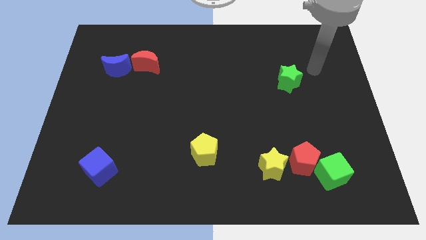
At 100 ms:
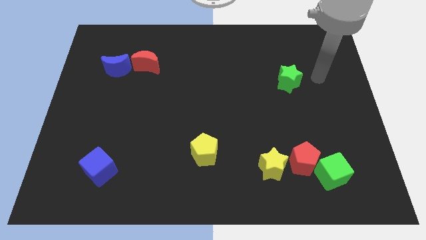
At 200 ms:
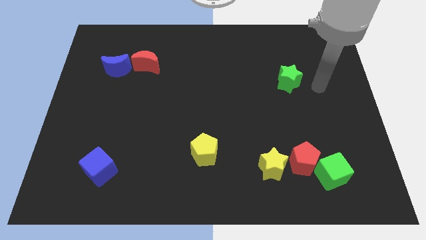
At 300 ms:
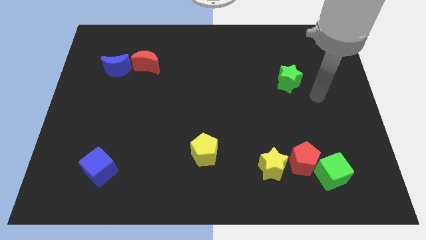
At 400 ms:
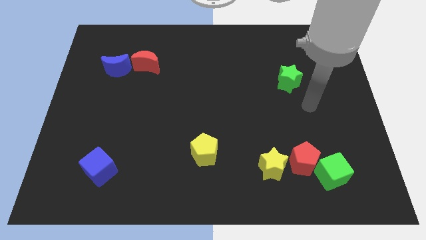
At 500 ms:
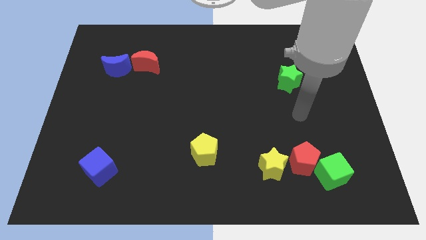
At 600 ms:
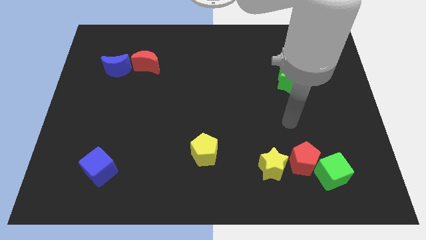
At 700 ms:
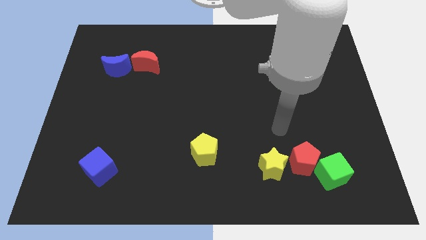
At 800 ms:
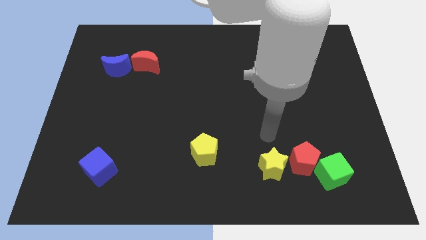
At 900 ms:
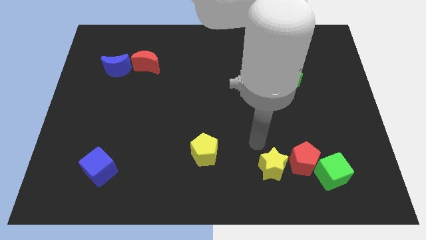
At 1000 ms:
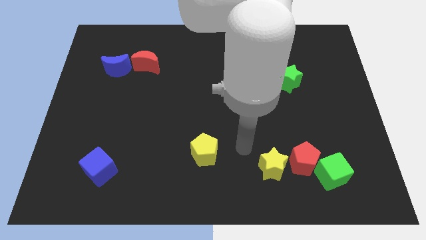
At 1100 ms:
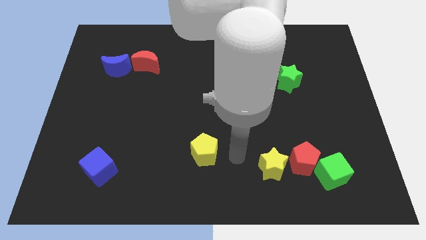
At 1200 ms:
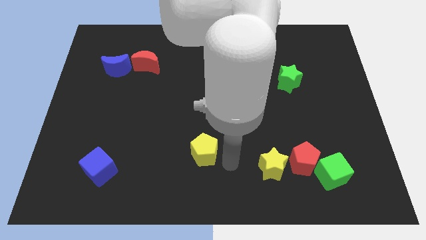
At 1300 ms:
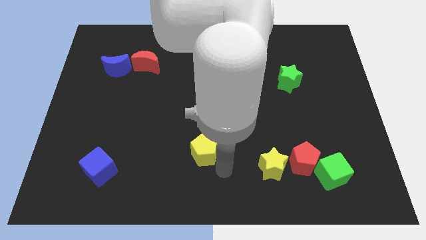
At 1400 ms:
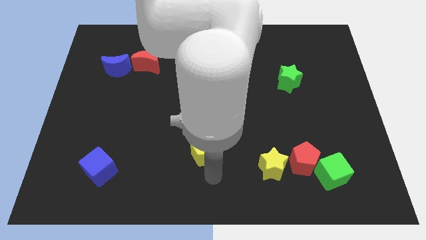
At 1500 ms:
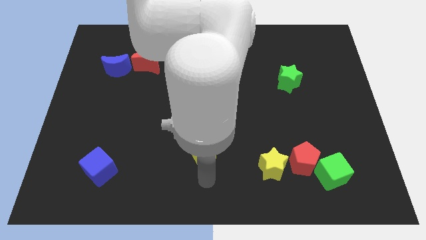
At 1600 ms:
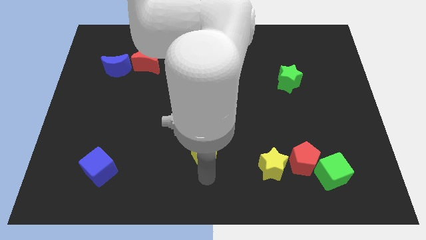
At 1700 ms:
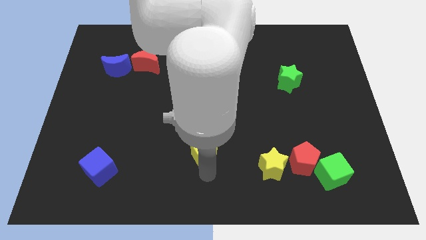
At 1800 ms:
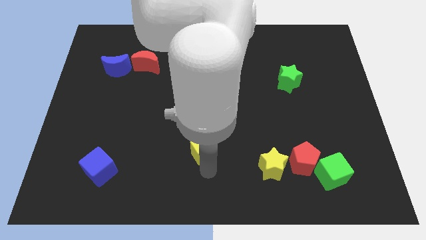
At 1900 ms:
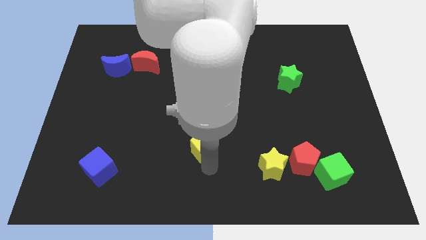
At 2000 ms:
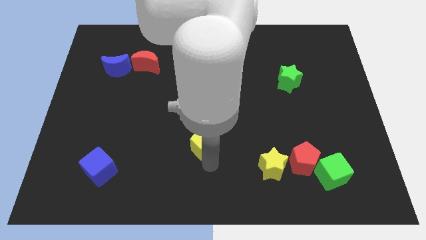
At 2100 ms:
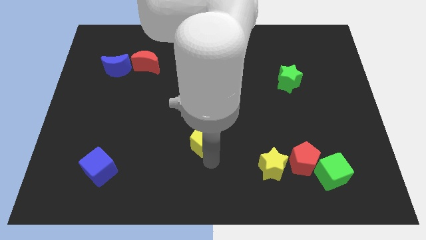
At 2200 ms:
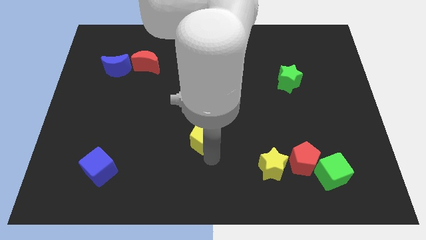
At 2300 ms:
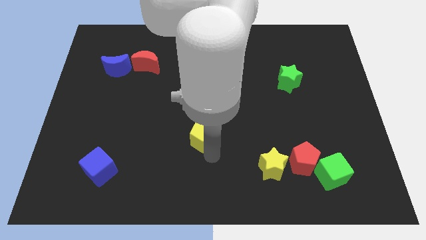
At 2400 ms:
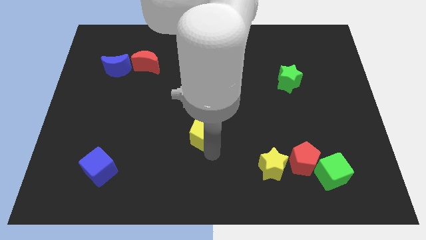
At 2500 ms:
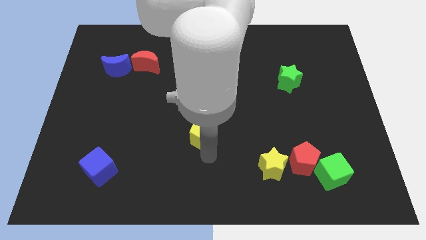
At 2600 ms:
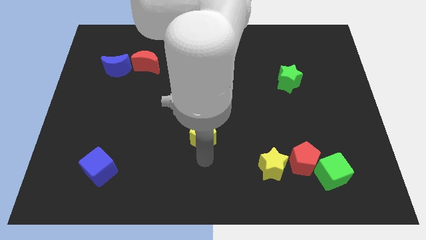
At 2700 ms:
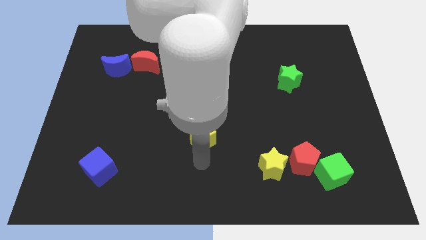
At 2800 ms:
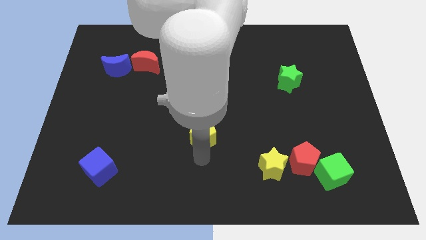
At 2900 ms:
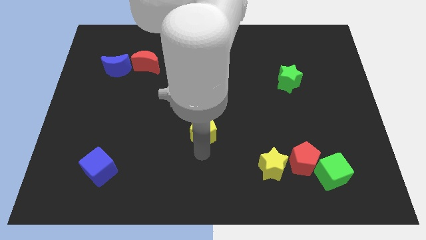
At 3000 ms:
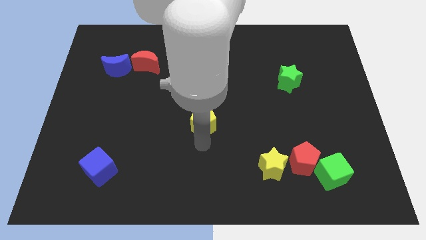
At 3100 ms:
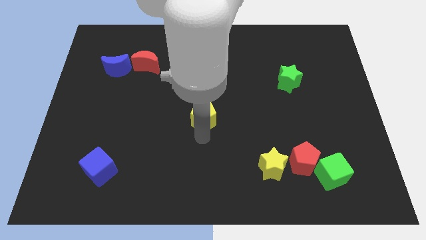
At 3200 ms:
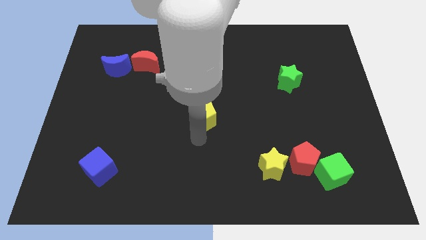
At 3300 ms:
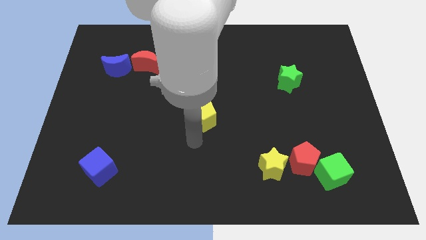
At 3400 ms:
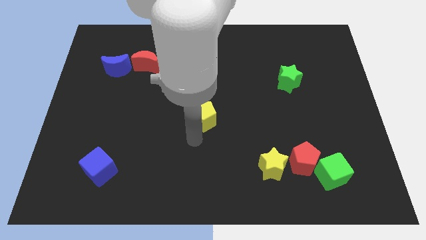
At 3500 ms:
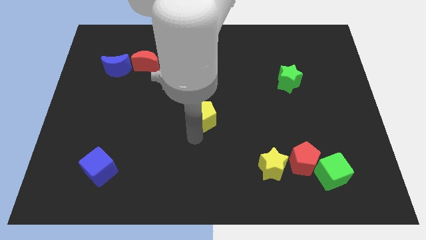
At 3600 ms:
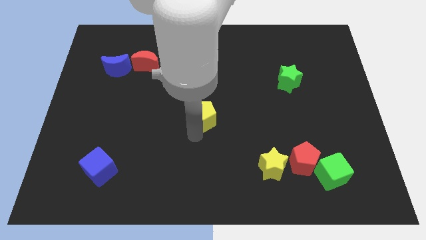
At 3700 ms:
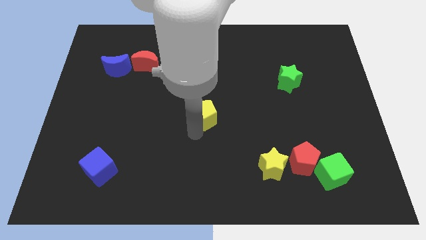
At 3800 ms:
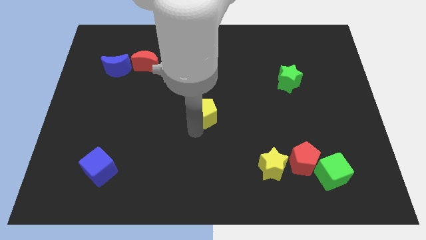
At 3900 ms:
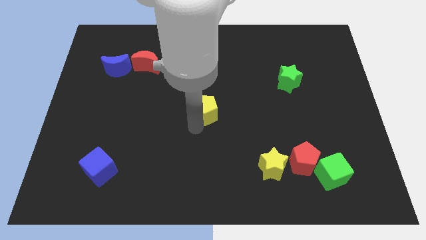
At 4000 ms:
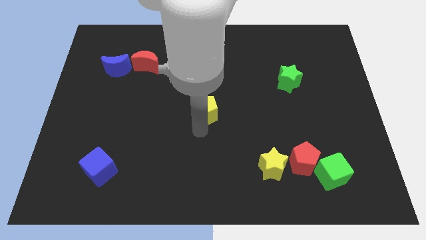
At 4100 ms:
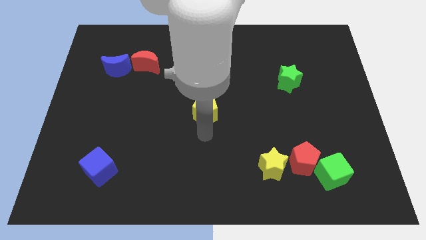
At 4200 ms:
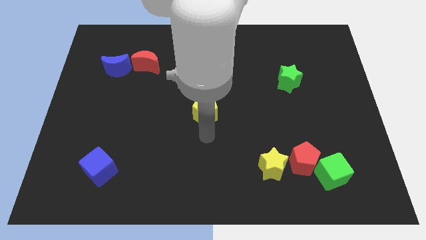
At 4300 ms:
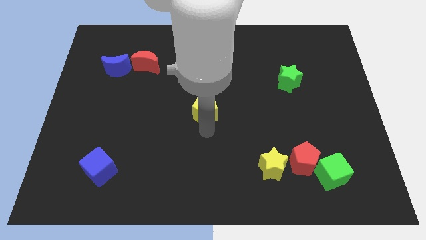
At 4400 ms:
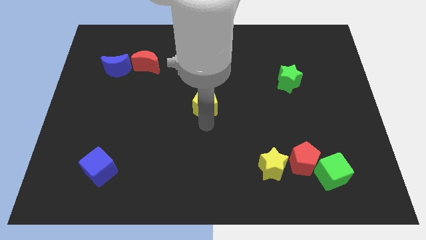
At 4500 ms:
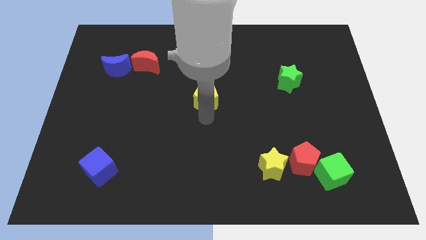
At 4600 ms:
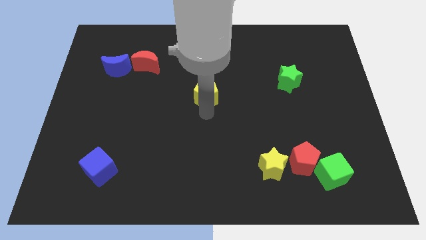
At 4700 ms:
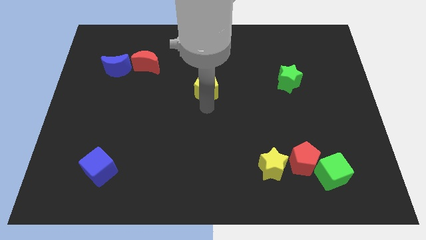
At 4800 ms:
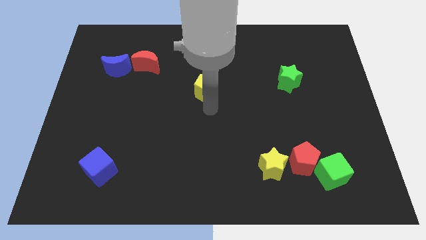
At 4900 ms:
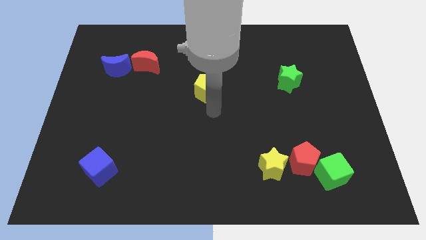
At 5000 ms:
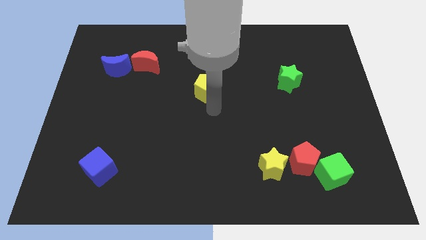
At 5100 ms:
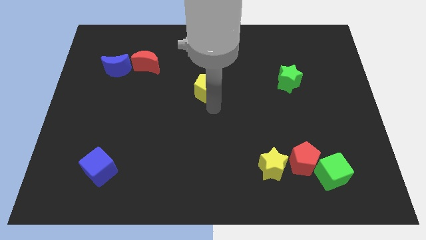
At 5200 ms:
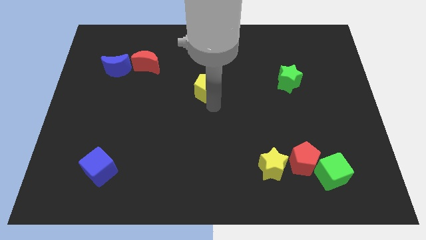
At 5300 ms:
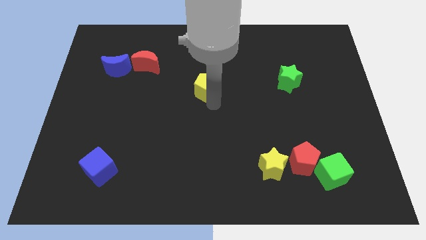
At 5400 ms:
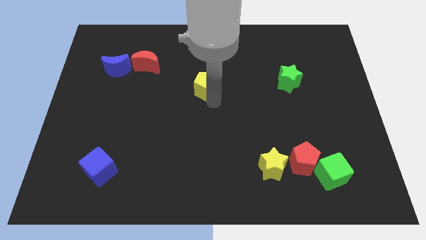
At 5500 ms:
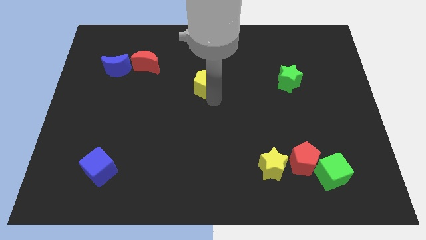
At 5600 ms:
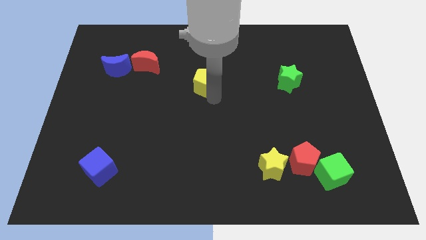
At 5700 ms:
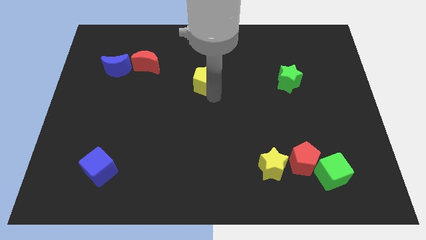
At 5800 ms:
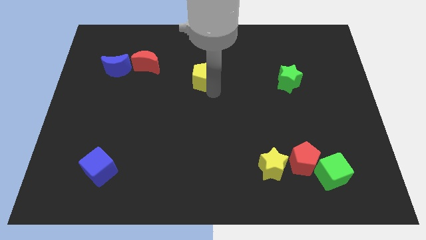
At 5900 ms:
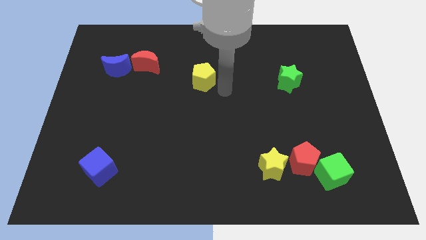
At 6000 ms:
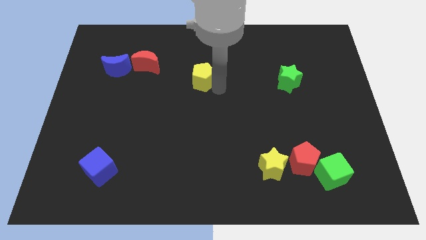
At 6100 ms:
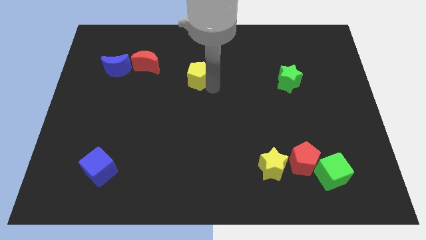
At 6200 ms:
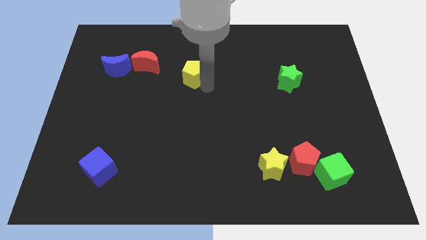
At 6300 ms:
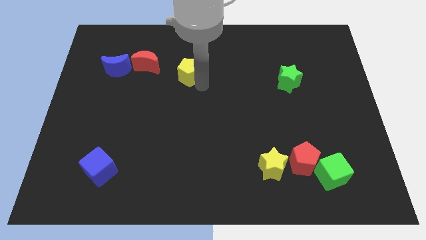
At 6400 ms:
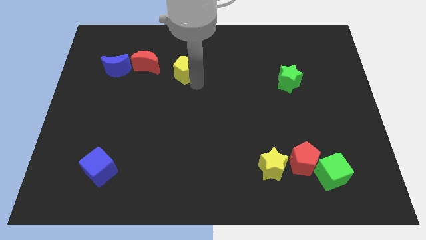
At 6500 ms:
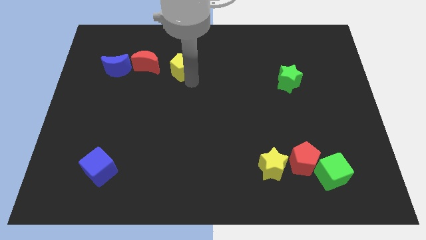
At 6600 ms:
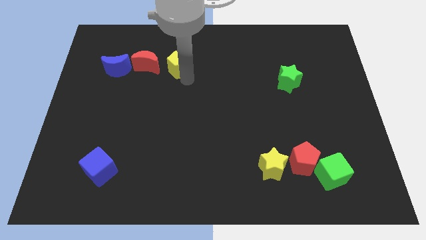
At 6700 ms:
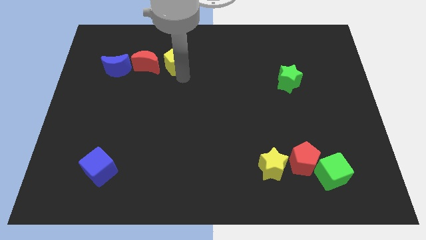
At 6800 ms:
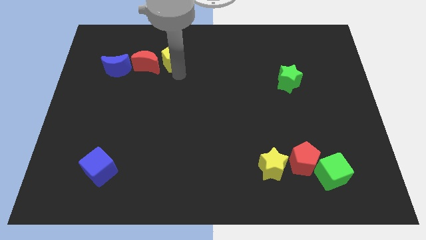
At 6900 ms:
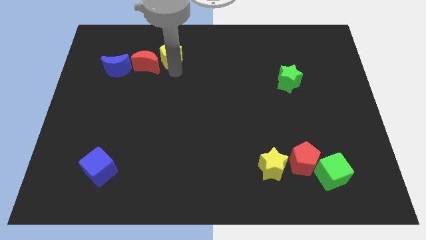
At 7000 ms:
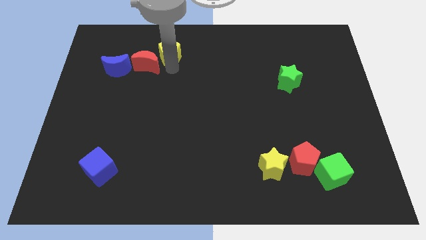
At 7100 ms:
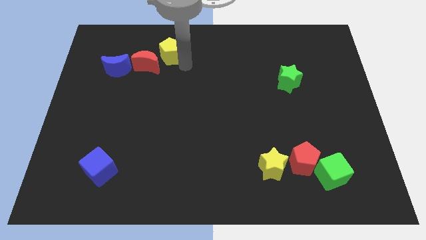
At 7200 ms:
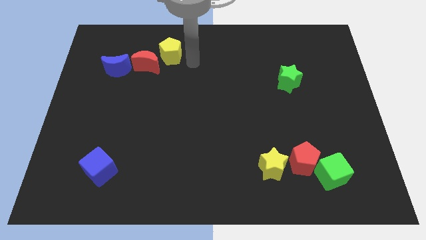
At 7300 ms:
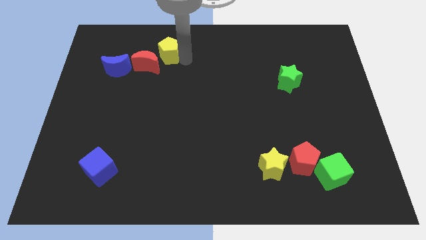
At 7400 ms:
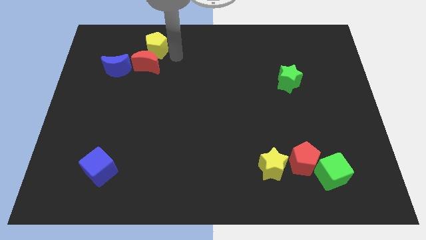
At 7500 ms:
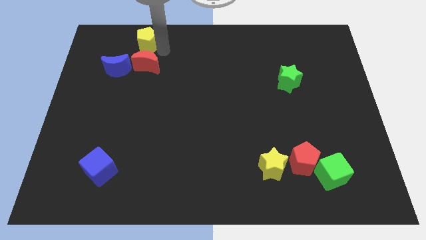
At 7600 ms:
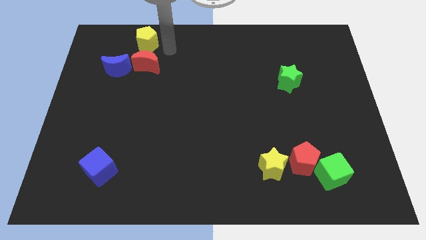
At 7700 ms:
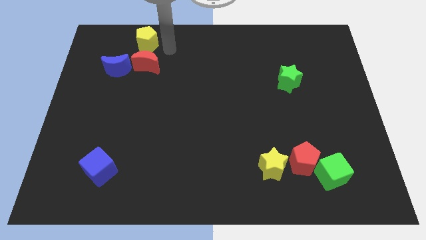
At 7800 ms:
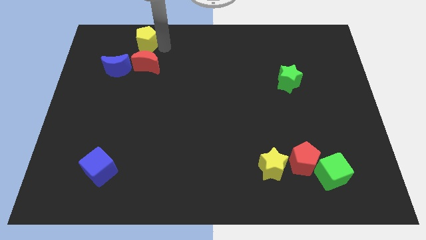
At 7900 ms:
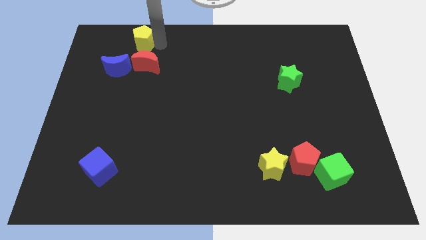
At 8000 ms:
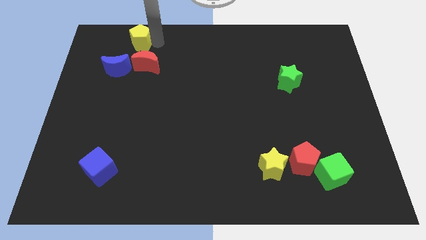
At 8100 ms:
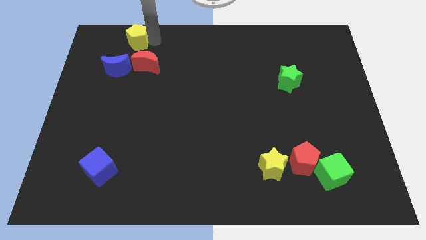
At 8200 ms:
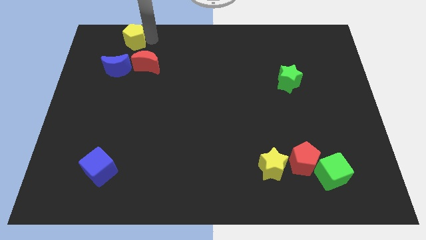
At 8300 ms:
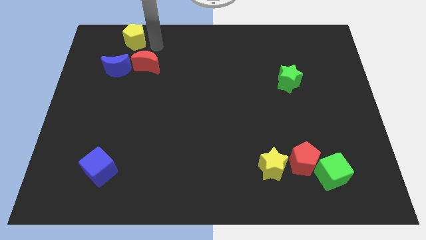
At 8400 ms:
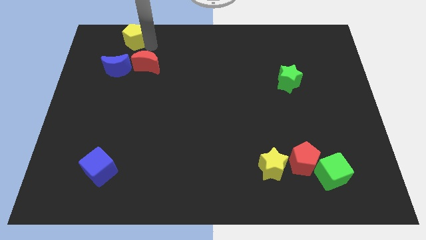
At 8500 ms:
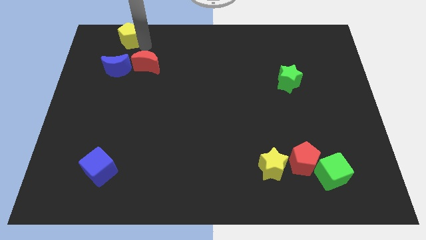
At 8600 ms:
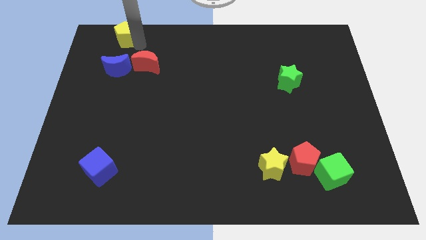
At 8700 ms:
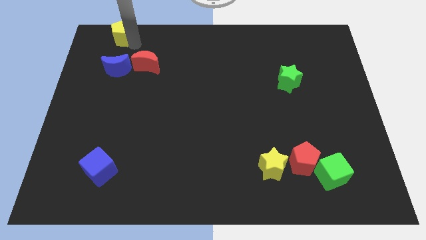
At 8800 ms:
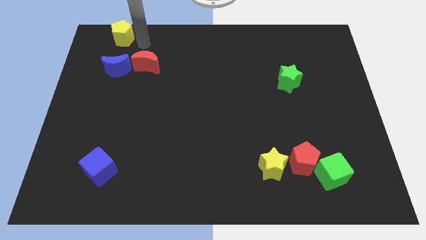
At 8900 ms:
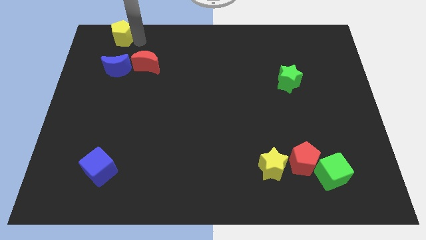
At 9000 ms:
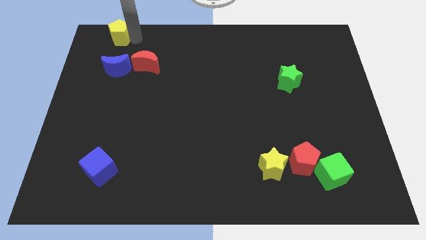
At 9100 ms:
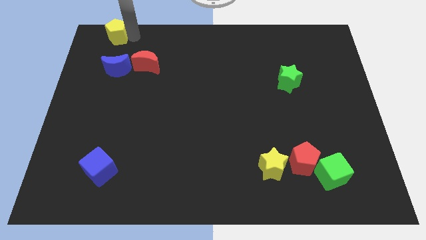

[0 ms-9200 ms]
slide the yellow pentagon to the top left
